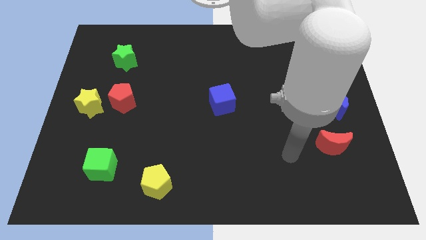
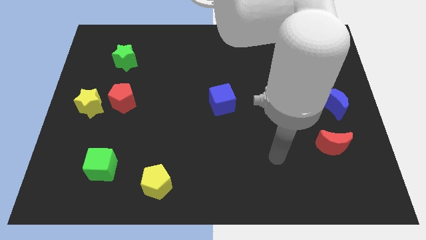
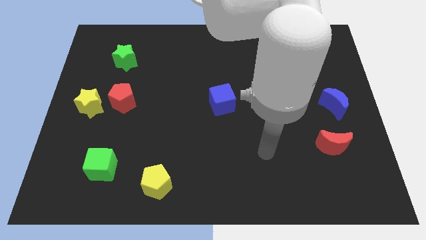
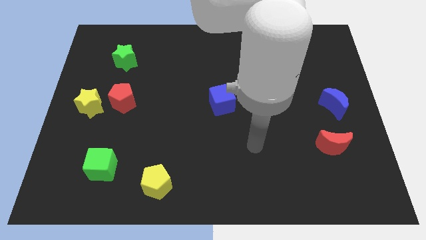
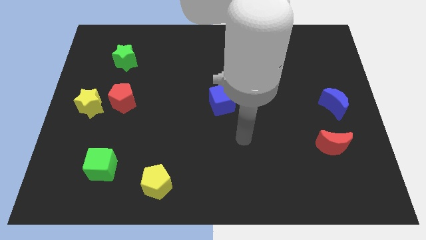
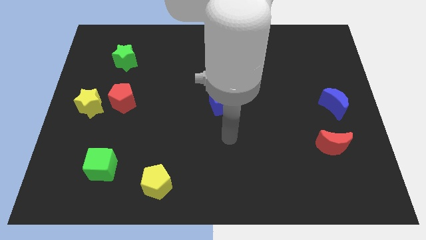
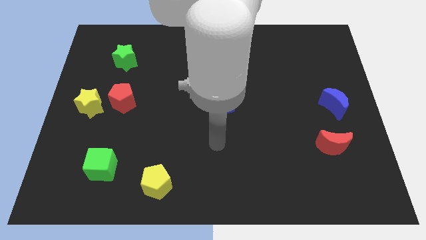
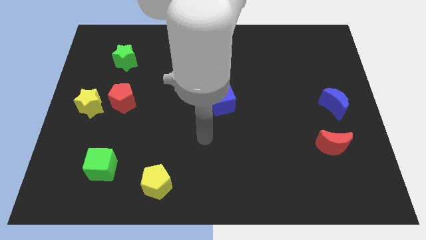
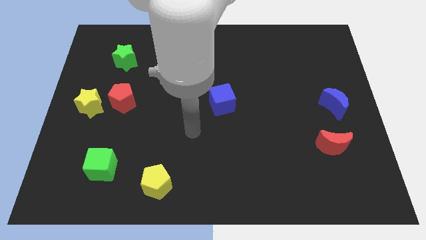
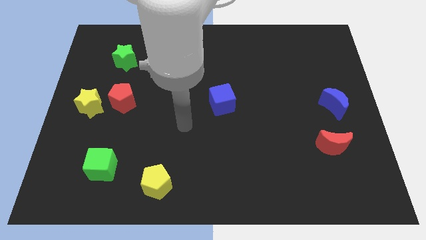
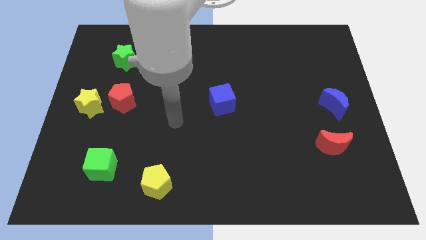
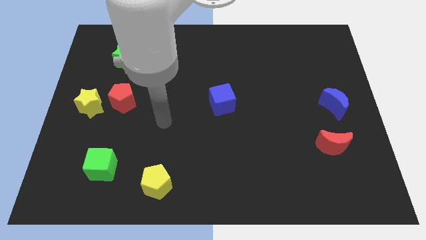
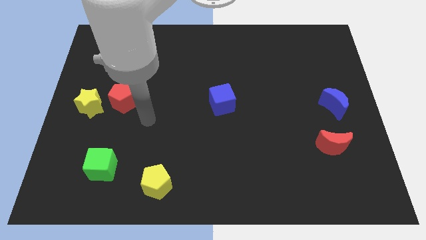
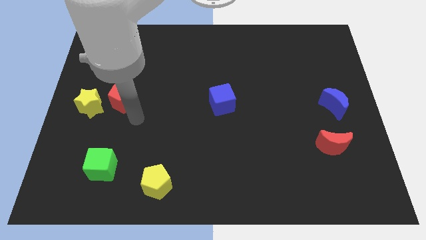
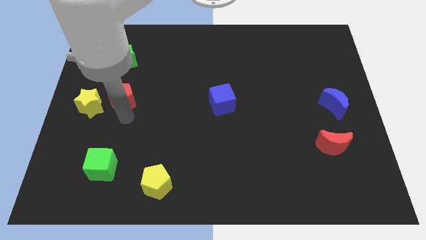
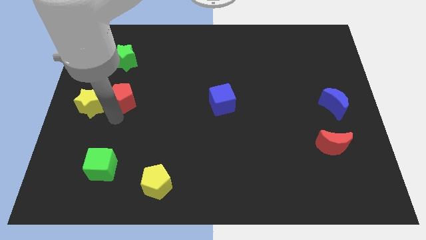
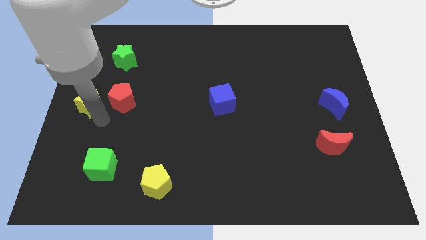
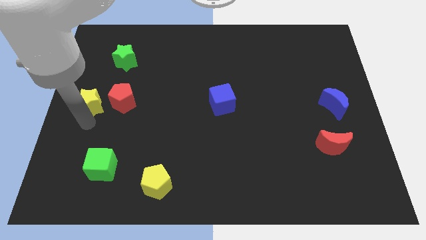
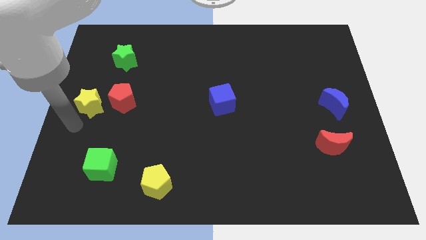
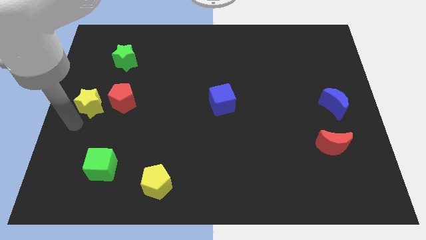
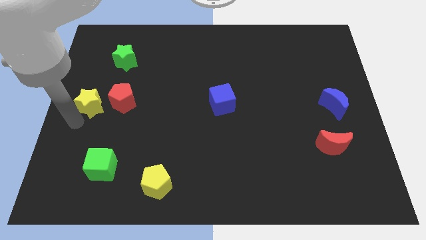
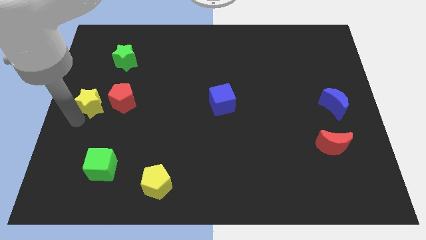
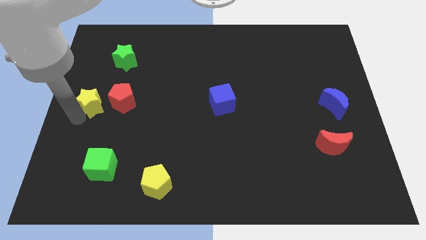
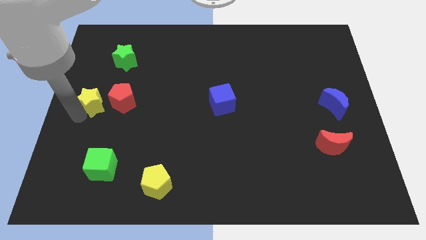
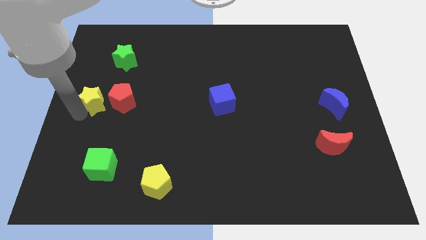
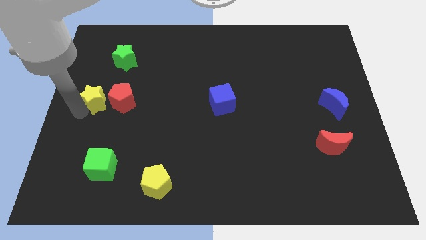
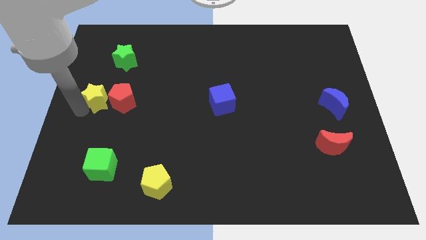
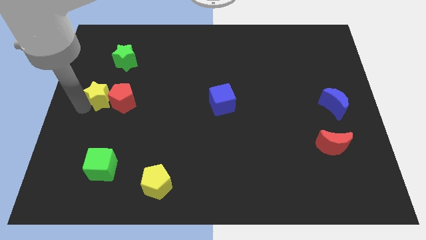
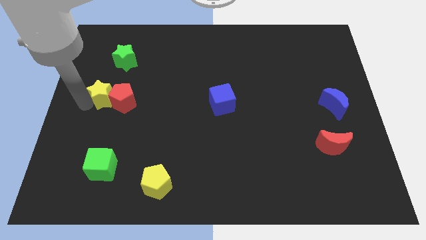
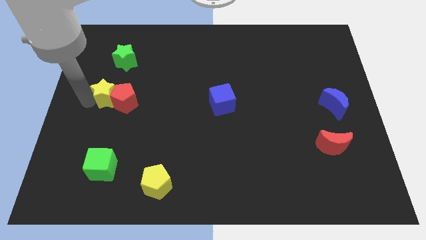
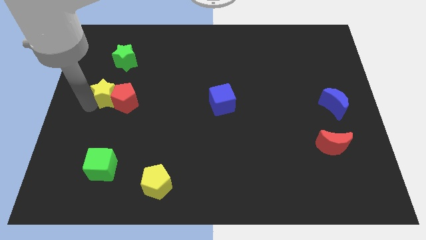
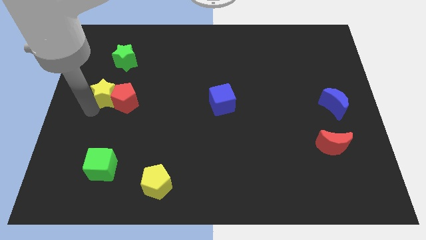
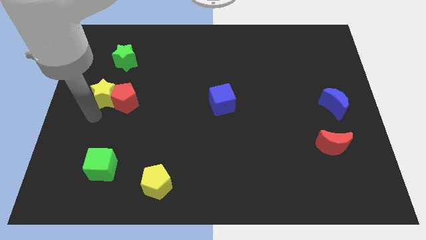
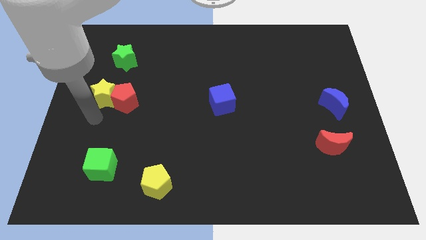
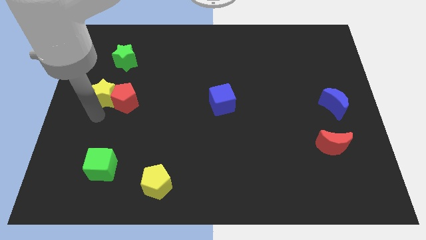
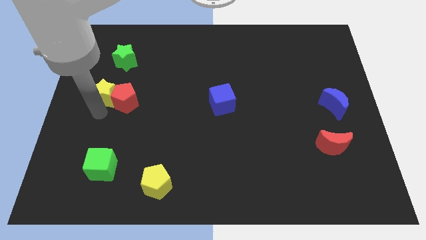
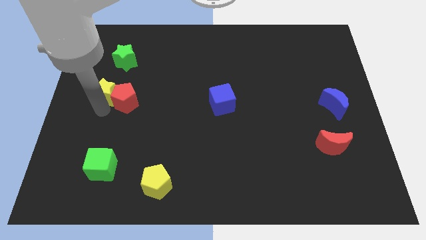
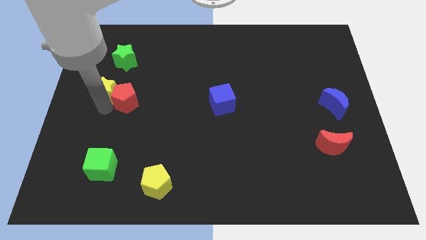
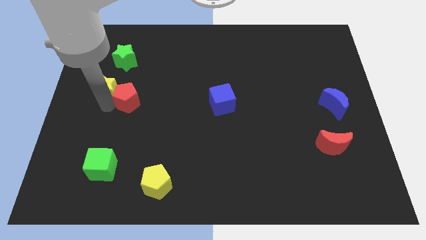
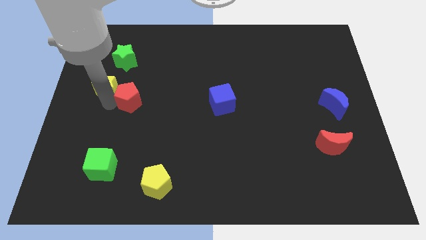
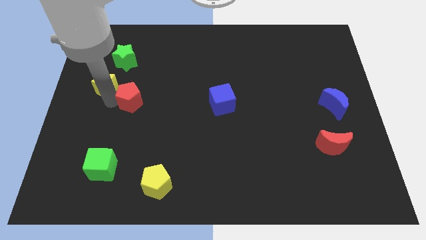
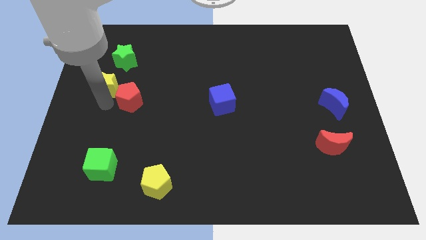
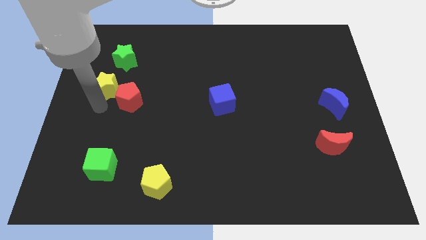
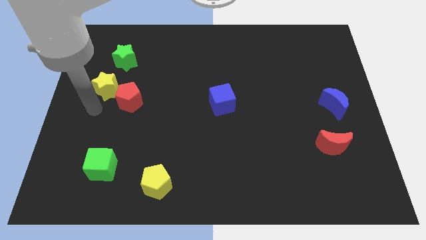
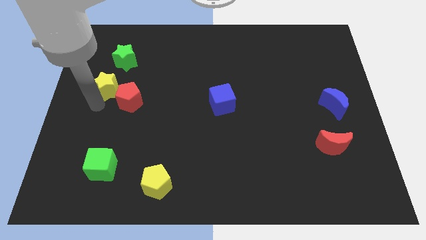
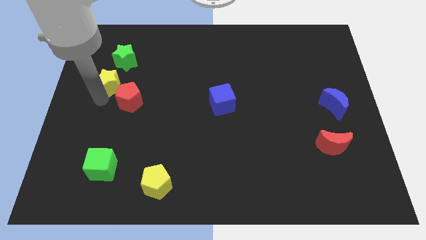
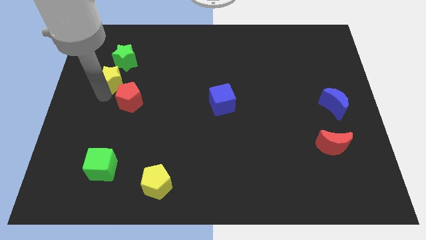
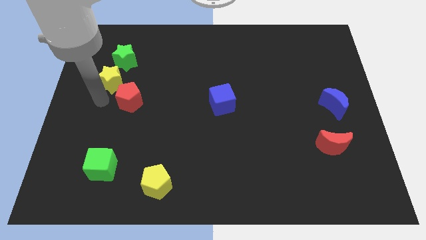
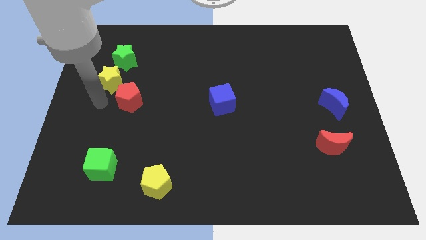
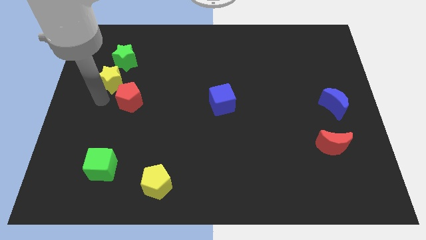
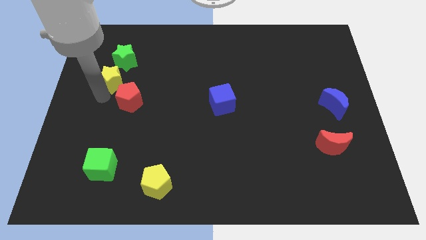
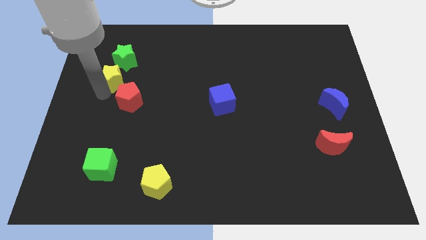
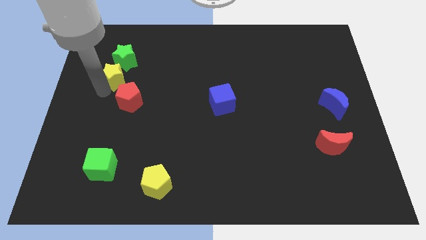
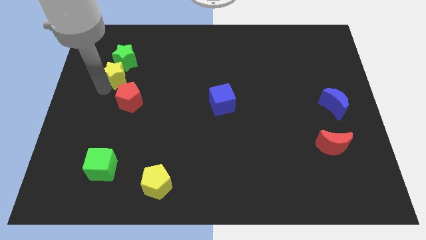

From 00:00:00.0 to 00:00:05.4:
put the yellow star to the green star

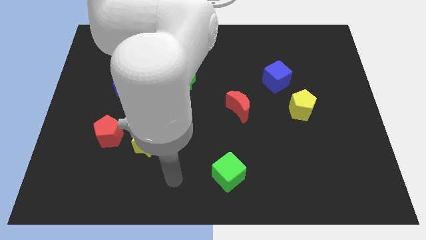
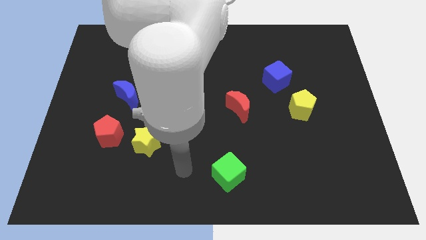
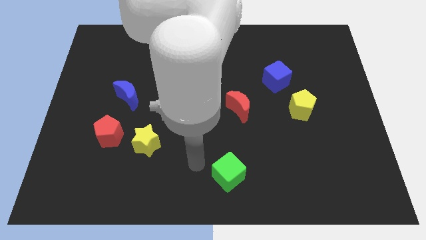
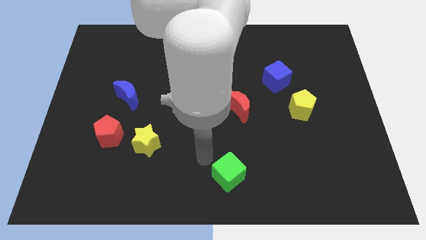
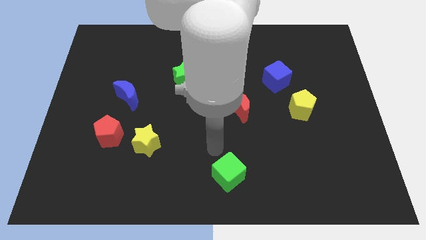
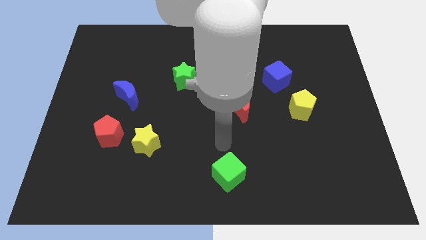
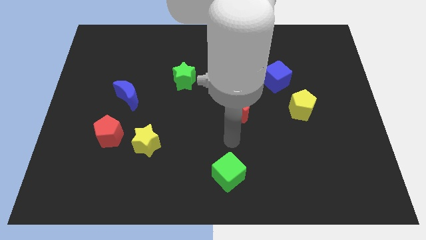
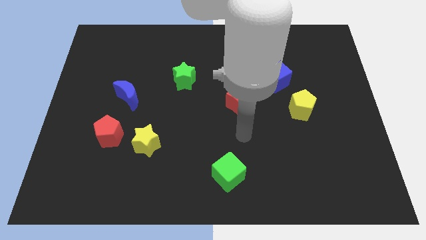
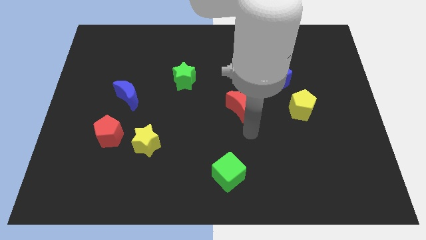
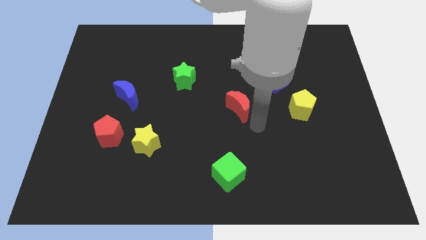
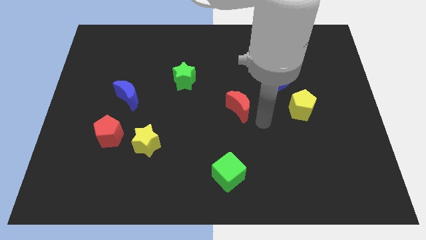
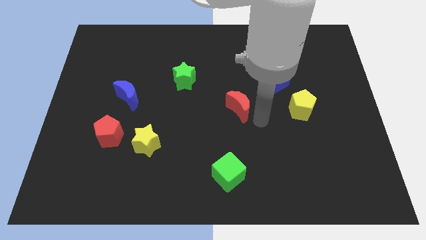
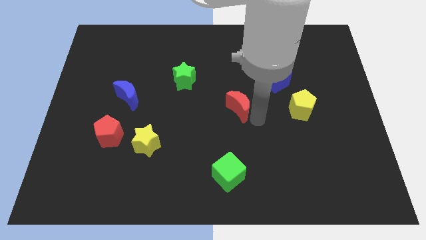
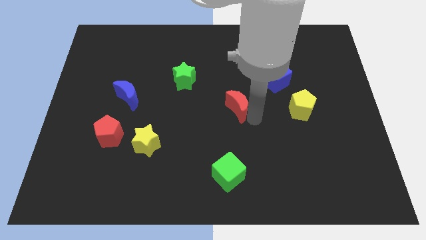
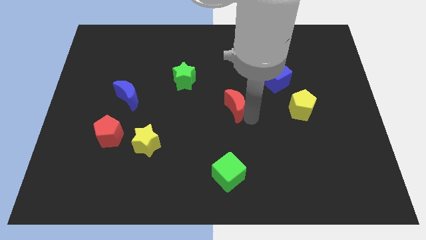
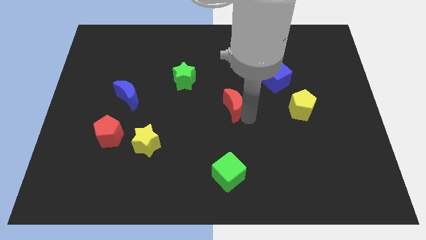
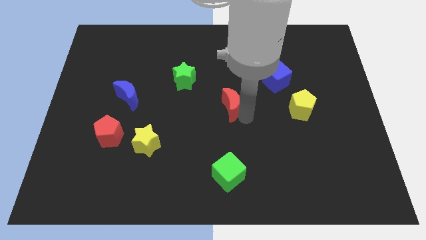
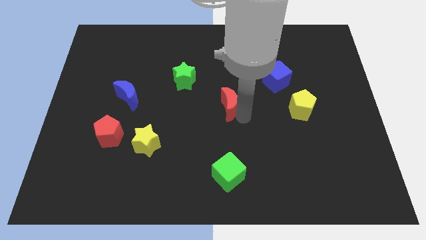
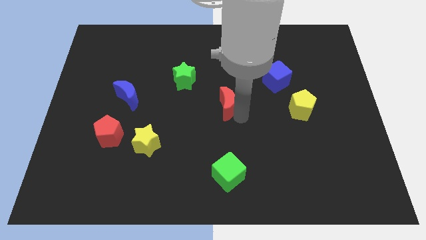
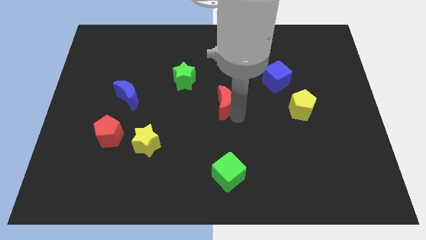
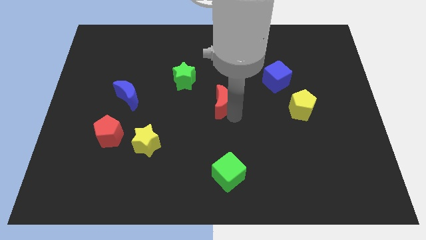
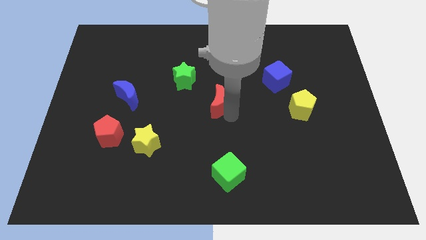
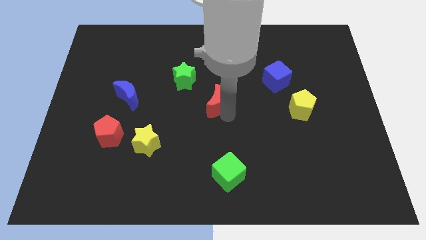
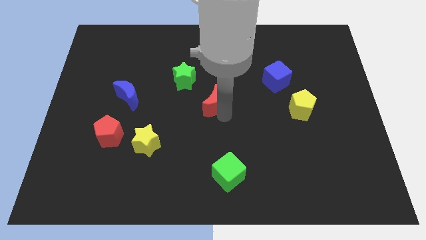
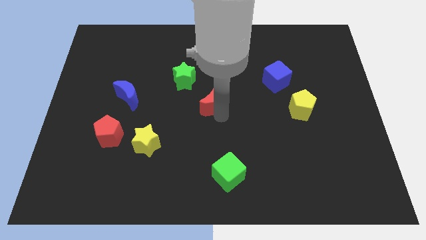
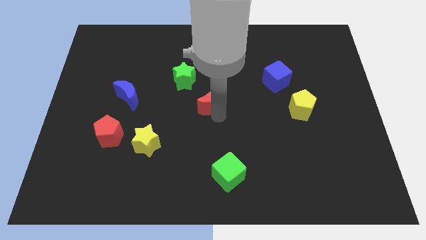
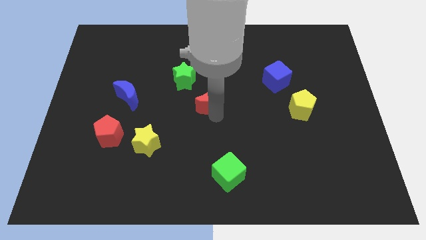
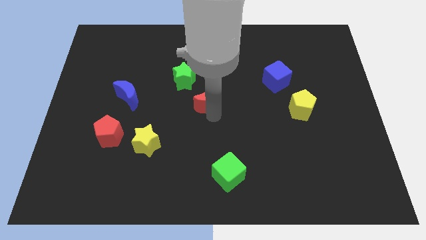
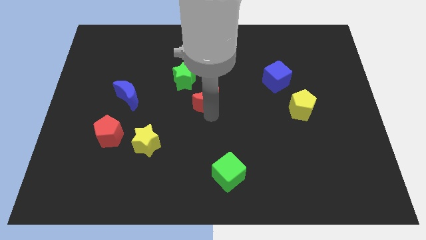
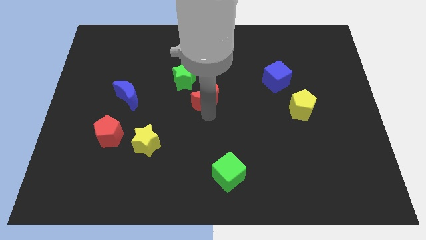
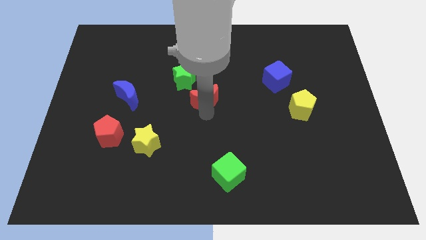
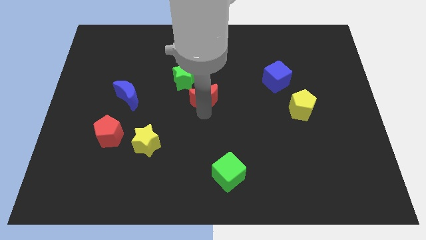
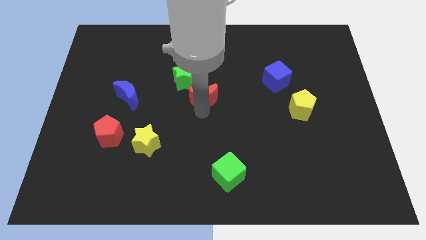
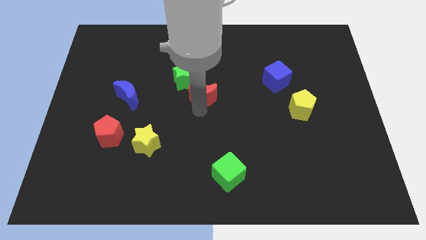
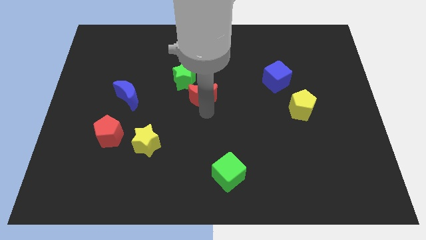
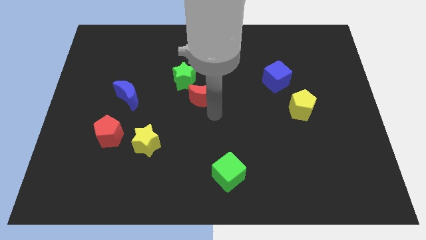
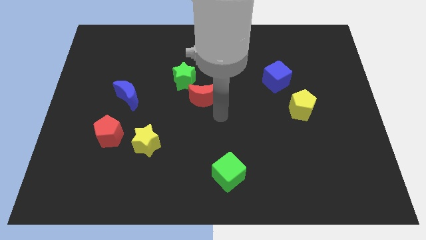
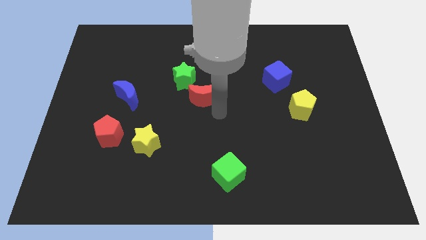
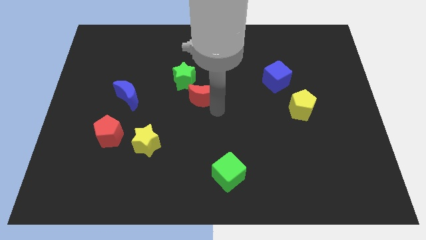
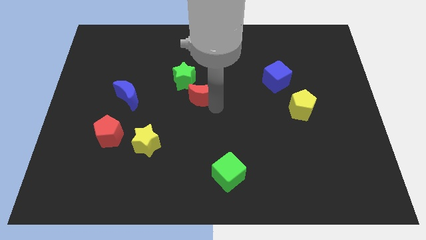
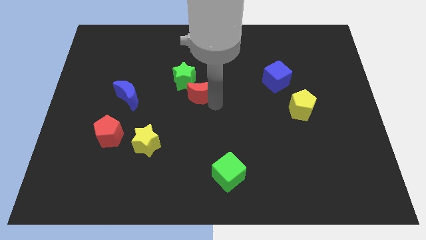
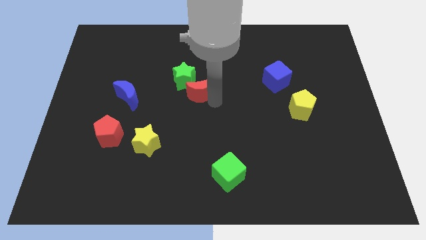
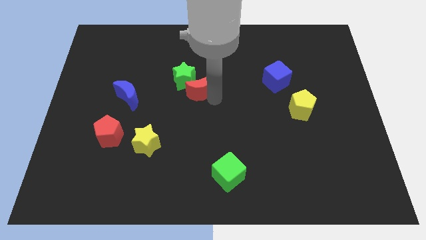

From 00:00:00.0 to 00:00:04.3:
put the red moon to the green star
